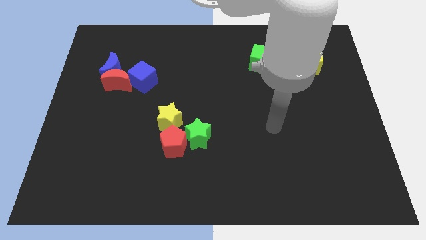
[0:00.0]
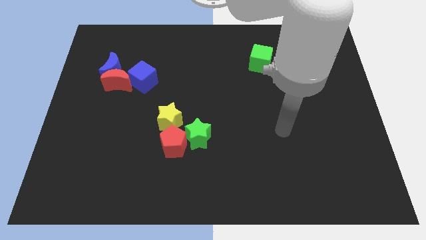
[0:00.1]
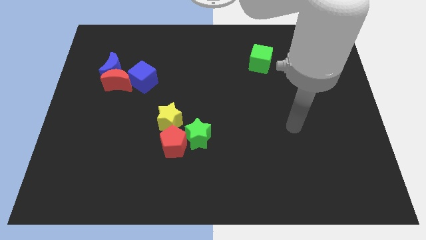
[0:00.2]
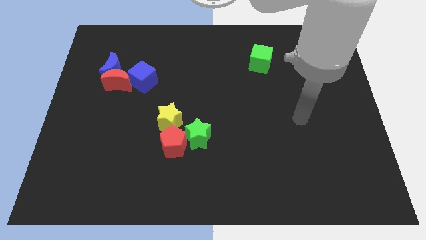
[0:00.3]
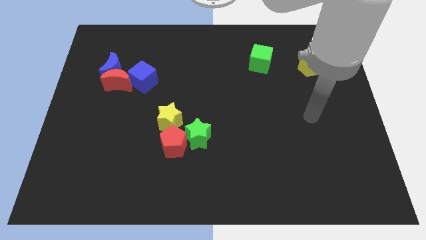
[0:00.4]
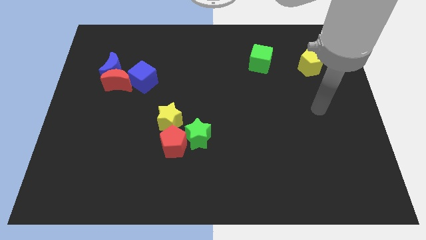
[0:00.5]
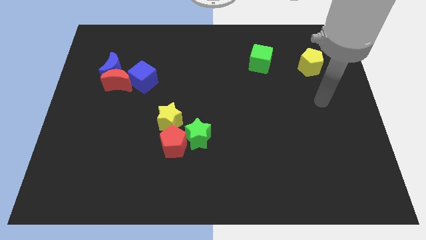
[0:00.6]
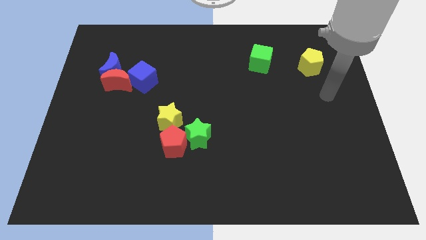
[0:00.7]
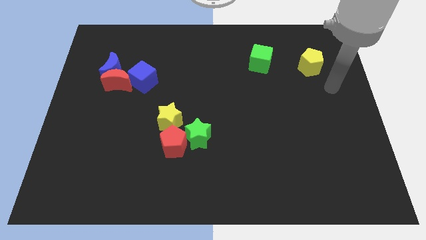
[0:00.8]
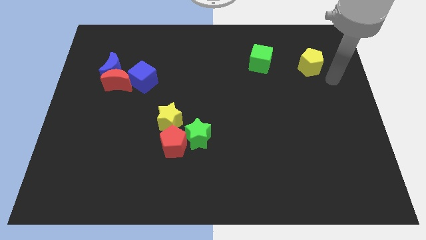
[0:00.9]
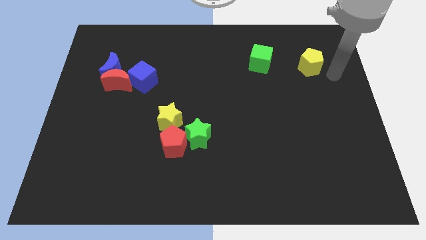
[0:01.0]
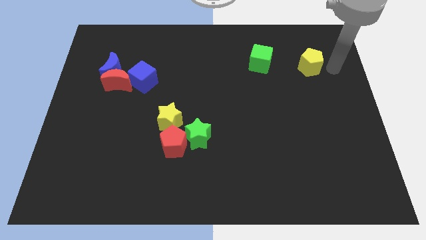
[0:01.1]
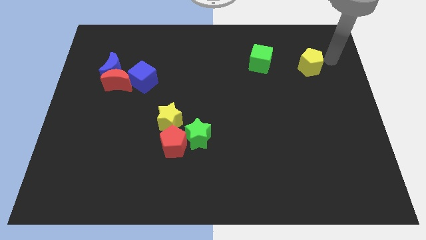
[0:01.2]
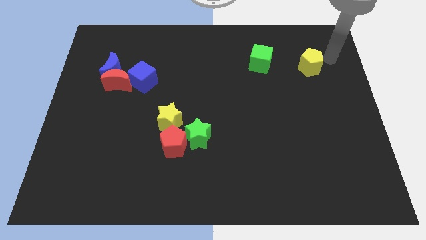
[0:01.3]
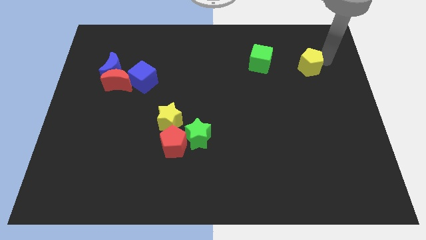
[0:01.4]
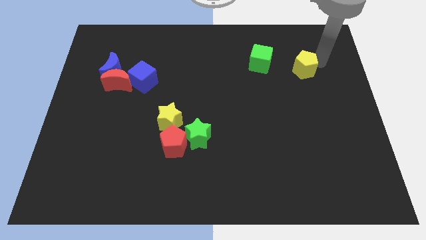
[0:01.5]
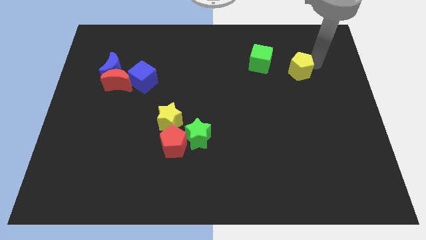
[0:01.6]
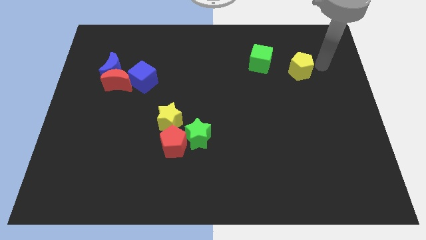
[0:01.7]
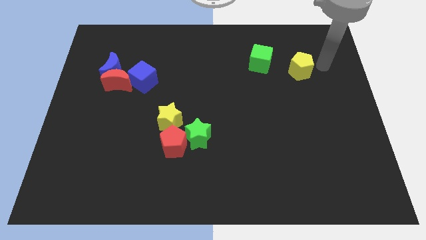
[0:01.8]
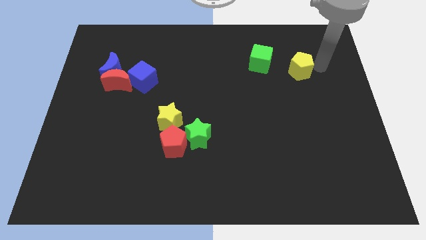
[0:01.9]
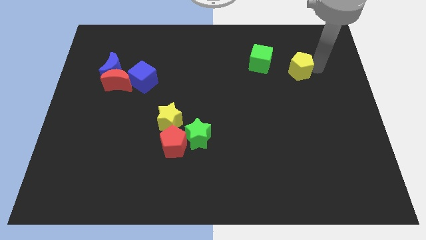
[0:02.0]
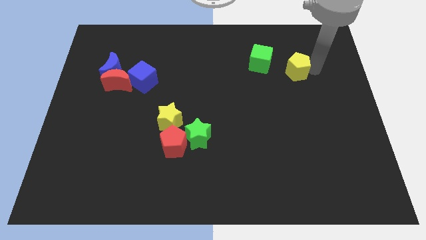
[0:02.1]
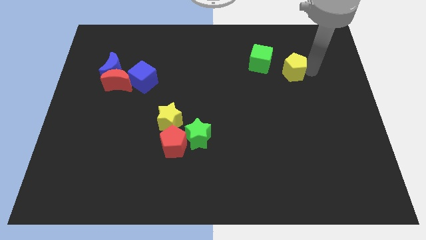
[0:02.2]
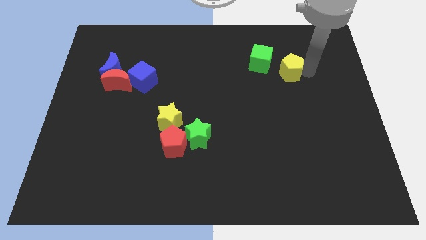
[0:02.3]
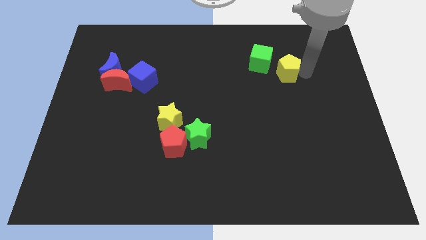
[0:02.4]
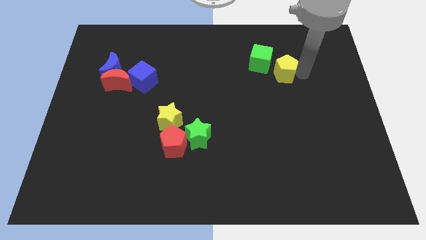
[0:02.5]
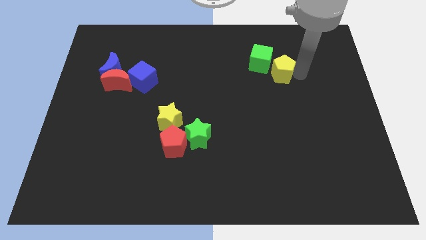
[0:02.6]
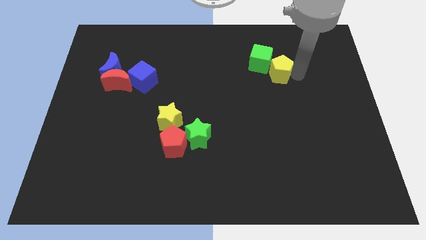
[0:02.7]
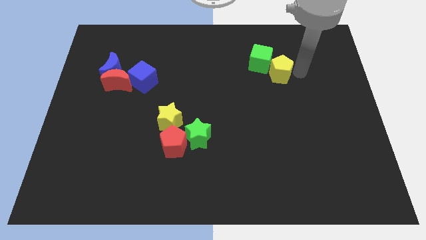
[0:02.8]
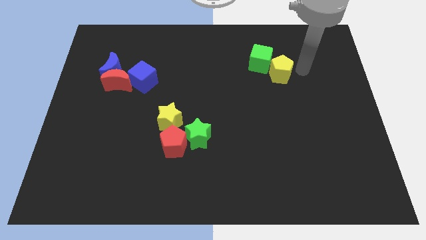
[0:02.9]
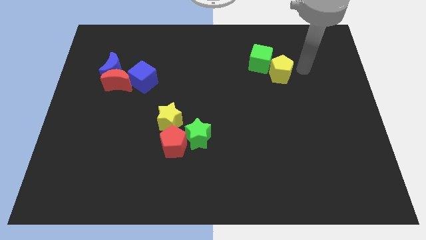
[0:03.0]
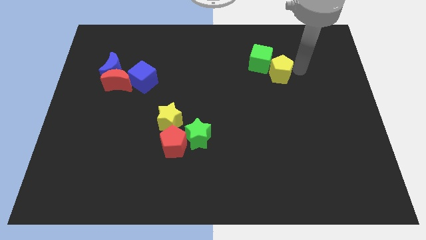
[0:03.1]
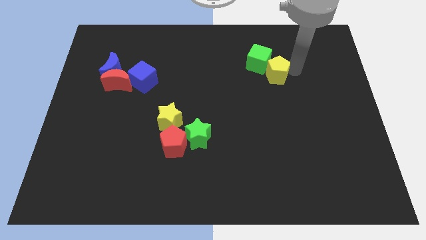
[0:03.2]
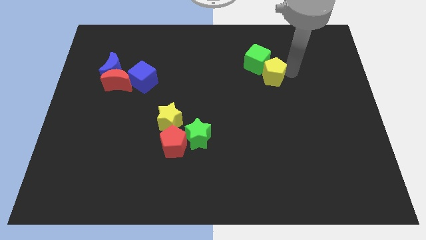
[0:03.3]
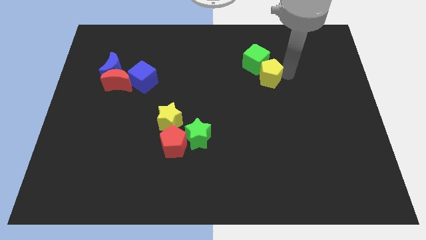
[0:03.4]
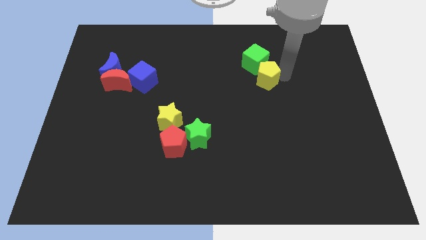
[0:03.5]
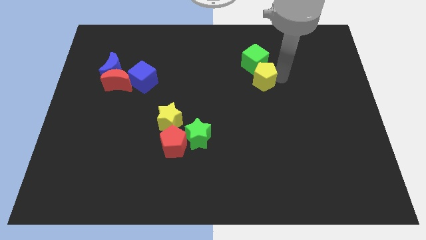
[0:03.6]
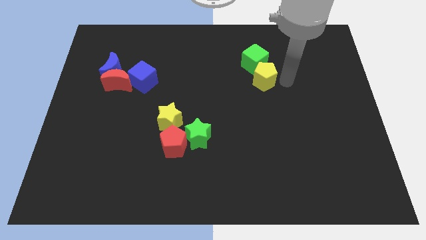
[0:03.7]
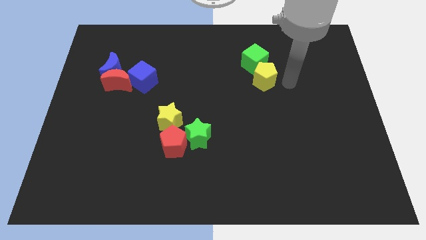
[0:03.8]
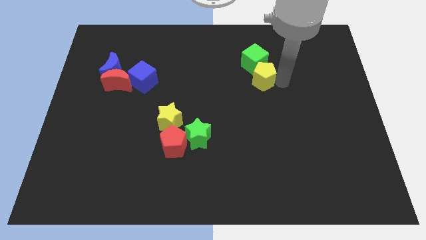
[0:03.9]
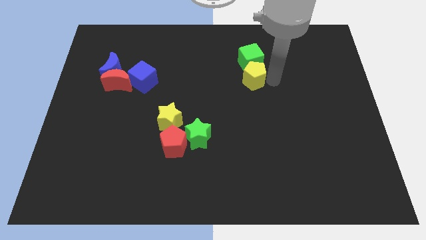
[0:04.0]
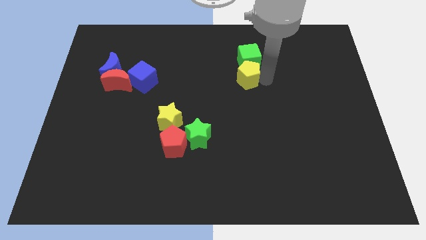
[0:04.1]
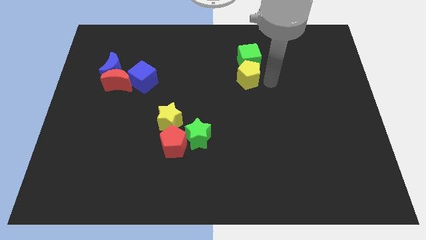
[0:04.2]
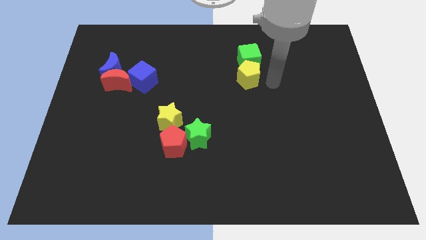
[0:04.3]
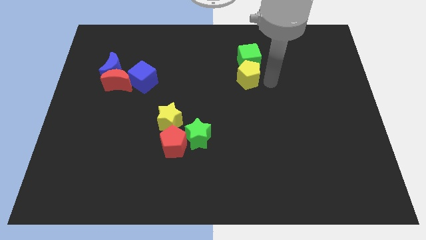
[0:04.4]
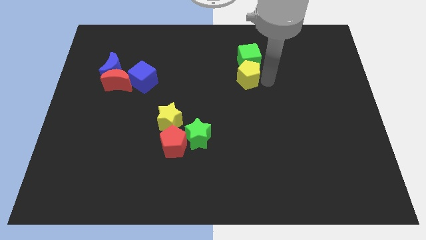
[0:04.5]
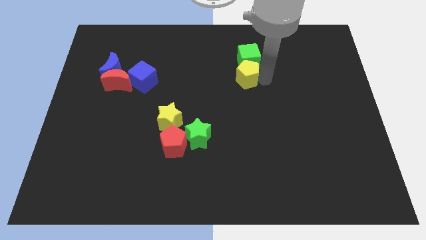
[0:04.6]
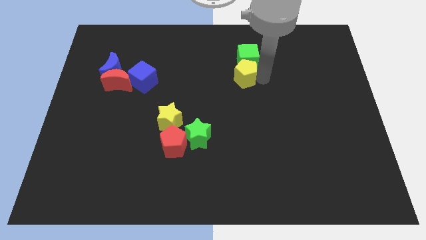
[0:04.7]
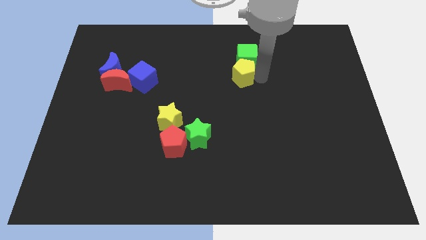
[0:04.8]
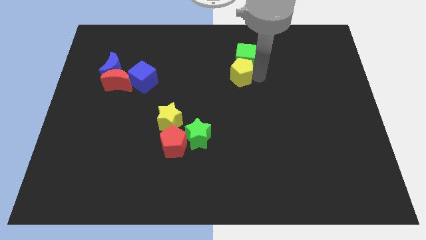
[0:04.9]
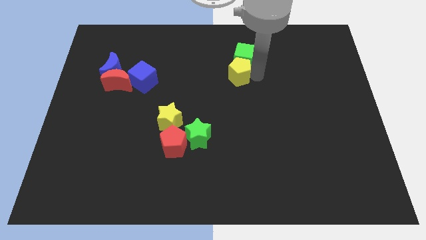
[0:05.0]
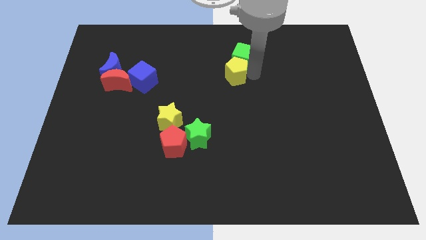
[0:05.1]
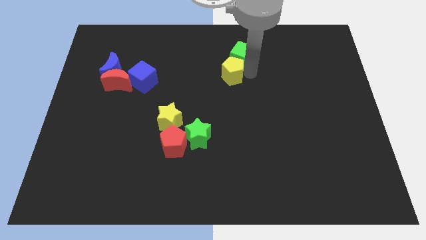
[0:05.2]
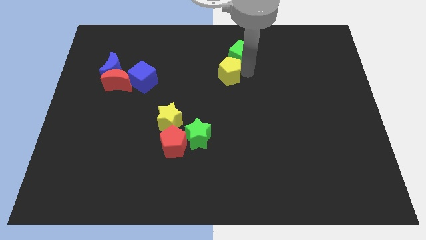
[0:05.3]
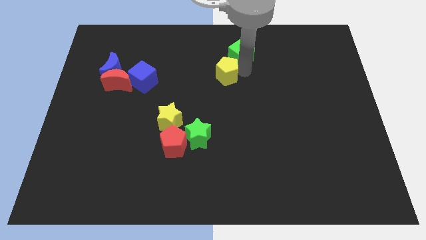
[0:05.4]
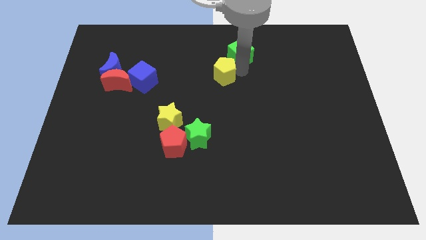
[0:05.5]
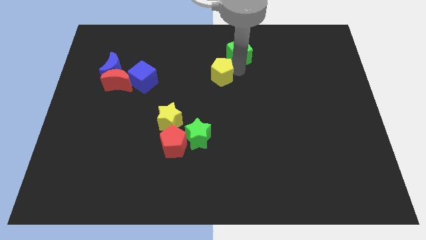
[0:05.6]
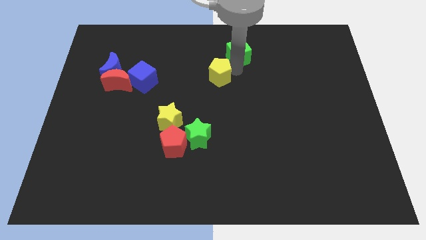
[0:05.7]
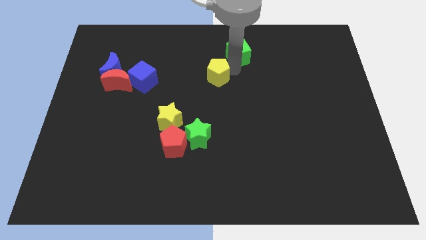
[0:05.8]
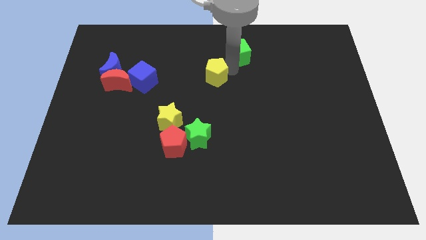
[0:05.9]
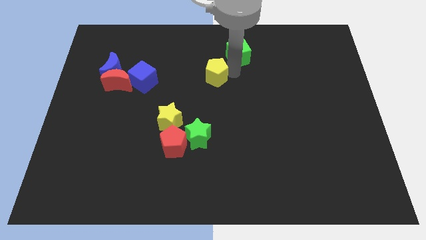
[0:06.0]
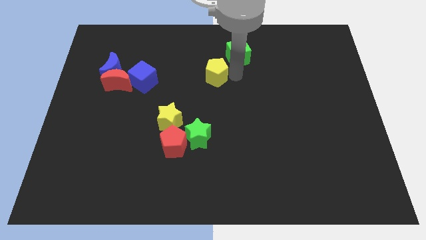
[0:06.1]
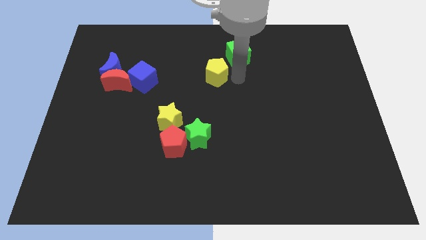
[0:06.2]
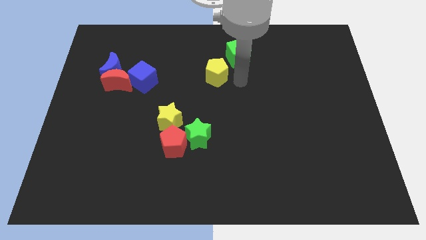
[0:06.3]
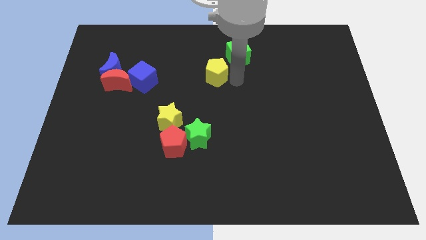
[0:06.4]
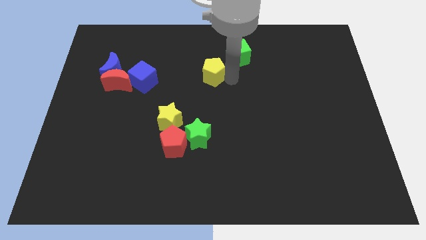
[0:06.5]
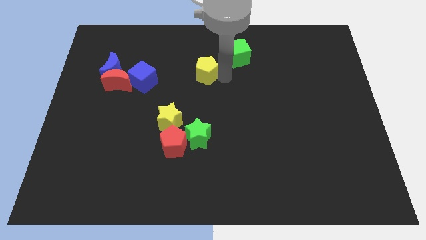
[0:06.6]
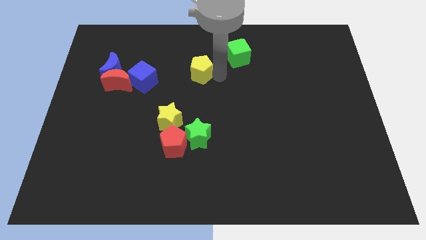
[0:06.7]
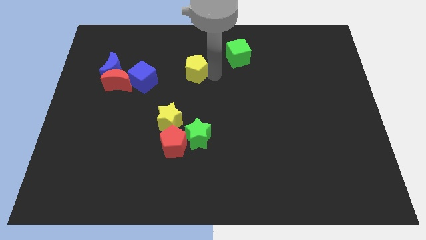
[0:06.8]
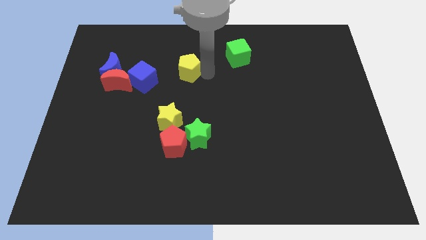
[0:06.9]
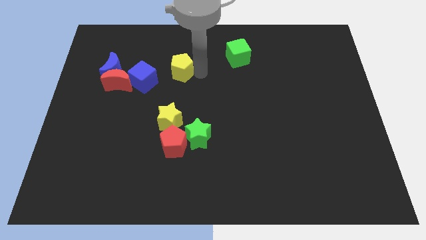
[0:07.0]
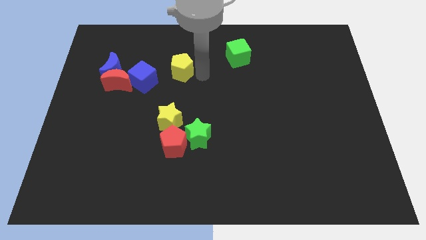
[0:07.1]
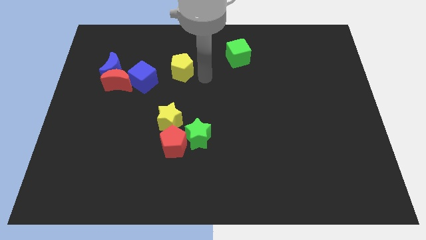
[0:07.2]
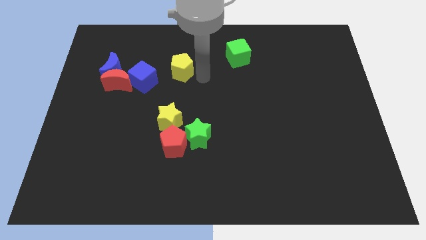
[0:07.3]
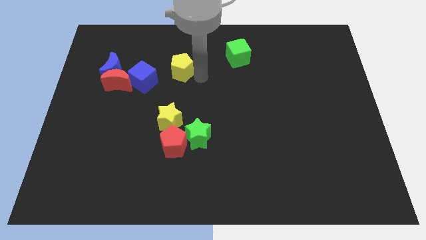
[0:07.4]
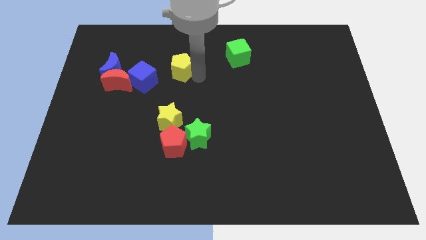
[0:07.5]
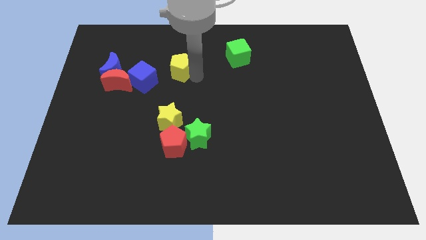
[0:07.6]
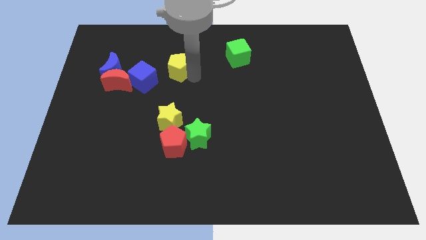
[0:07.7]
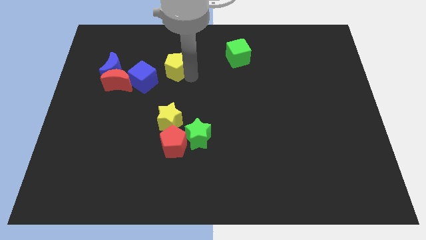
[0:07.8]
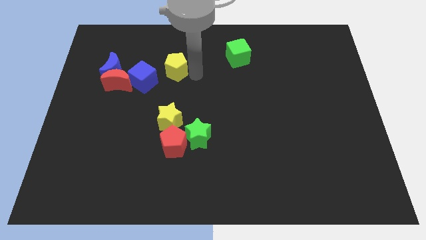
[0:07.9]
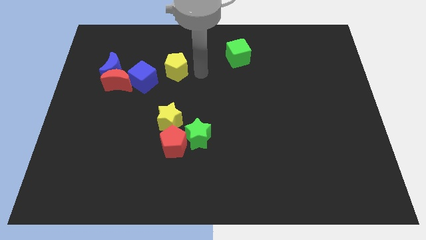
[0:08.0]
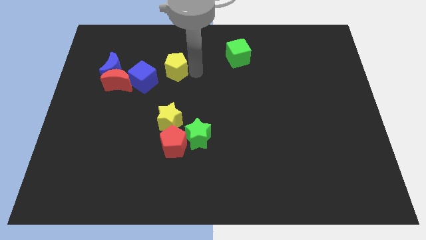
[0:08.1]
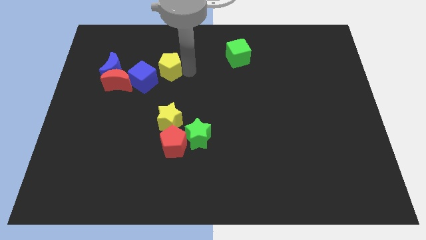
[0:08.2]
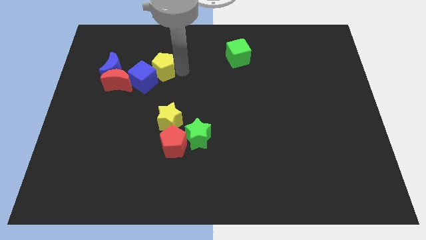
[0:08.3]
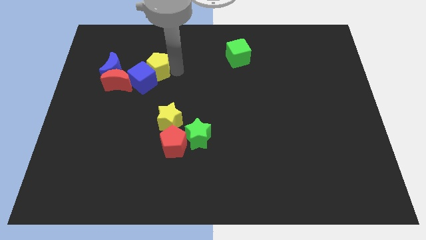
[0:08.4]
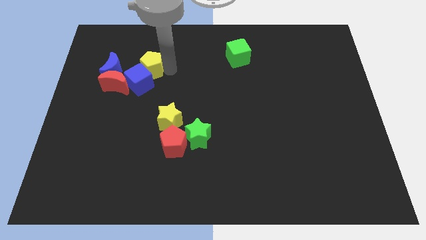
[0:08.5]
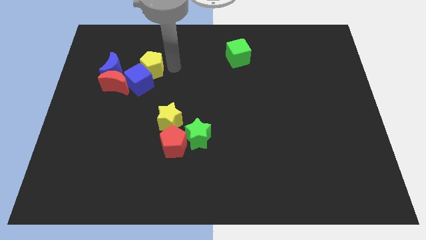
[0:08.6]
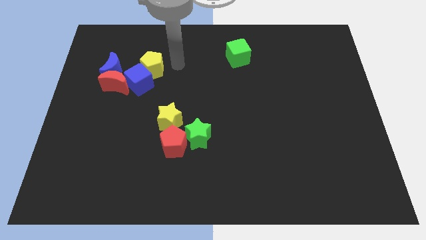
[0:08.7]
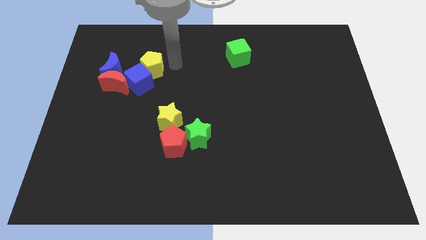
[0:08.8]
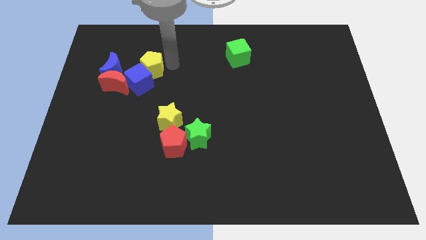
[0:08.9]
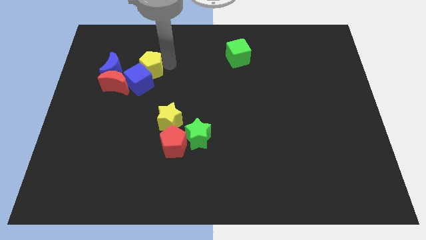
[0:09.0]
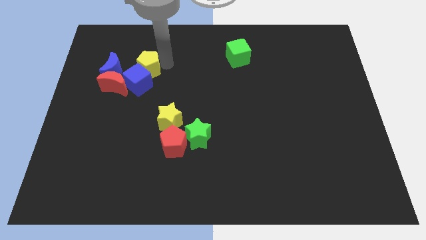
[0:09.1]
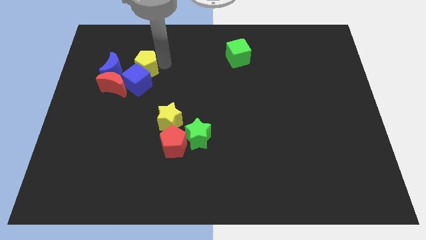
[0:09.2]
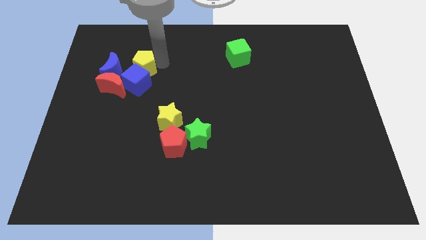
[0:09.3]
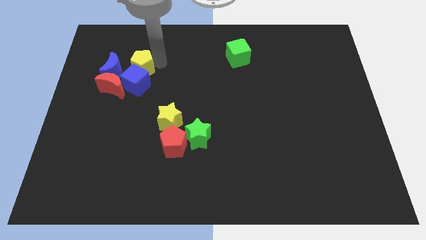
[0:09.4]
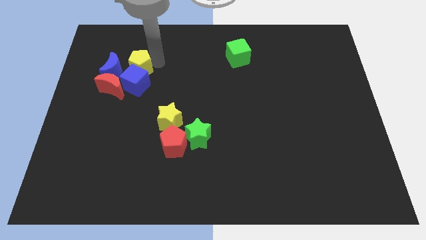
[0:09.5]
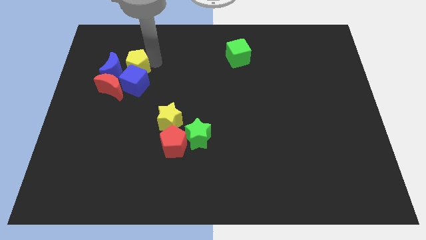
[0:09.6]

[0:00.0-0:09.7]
push the yellow pentagon close to the blue moon
